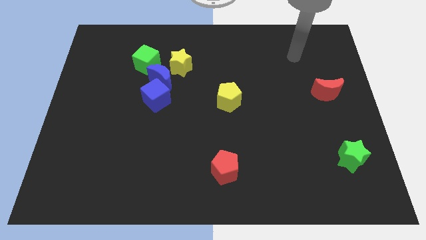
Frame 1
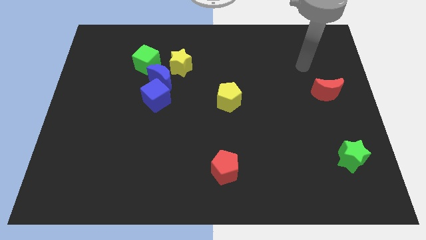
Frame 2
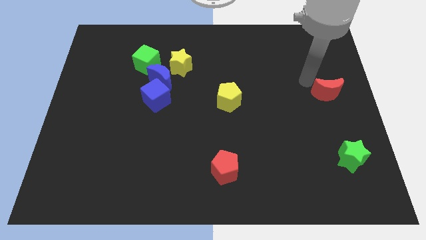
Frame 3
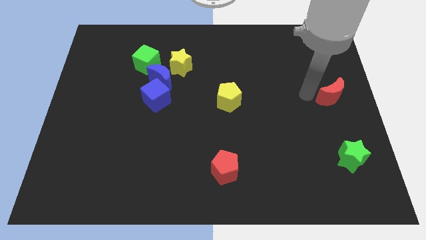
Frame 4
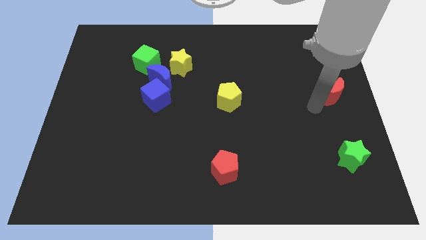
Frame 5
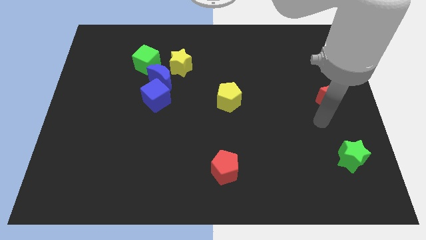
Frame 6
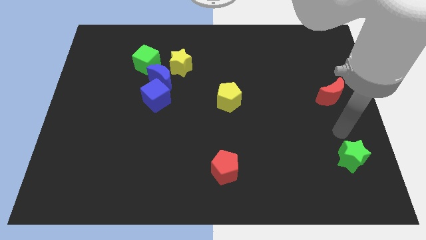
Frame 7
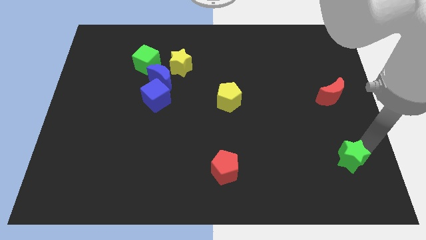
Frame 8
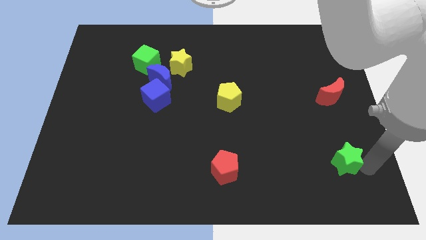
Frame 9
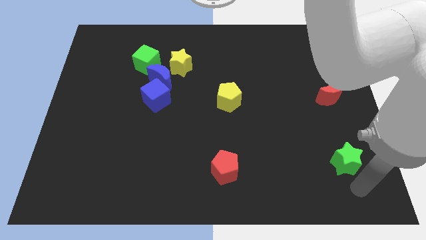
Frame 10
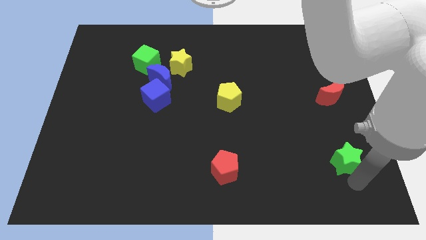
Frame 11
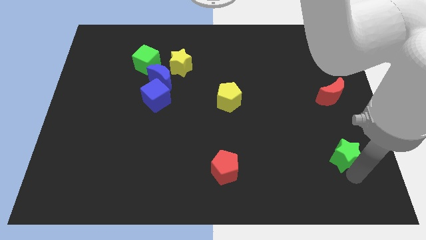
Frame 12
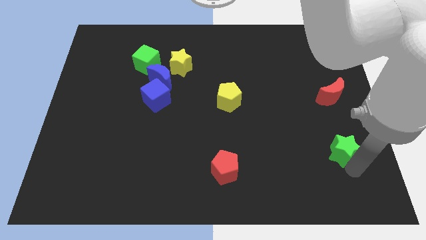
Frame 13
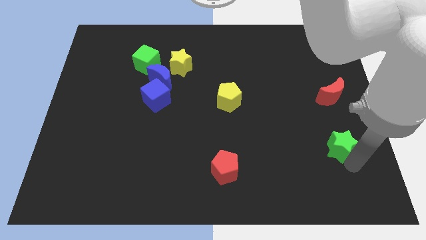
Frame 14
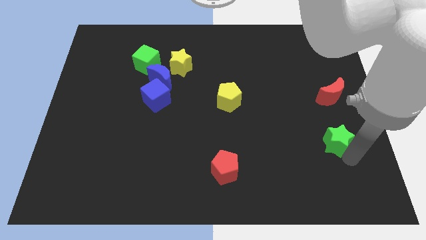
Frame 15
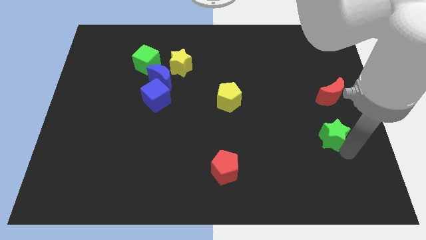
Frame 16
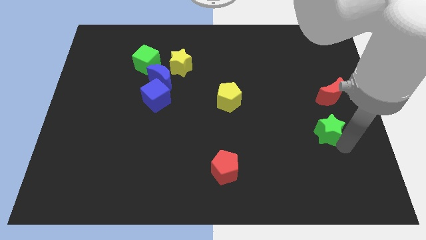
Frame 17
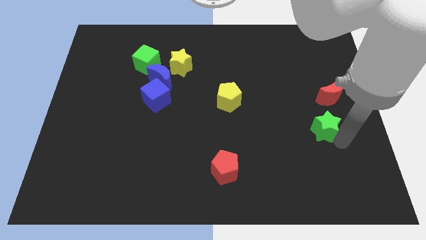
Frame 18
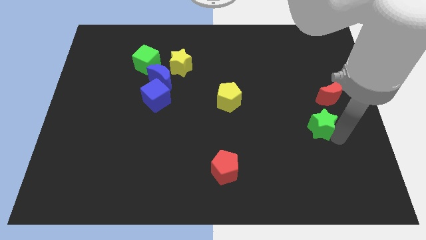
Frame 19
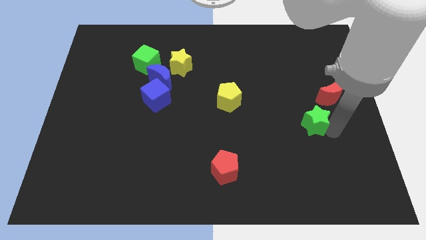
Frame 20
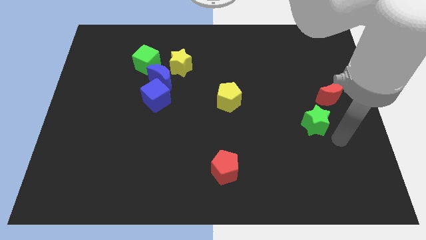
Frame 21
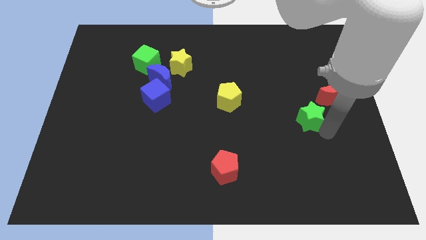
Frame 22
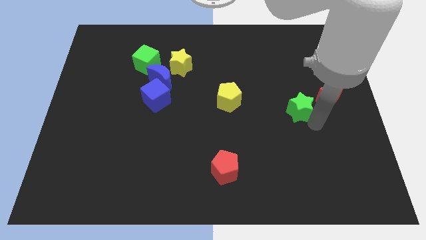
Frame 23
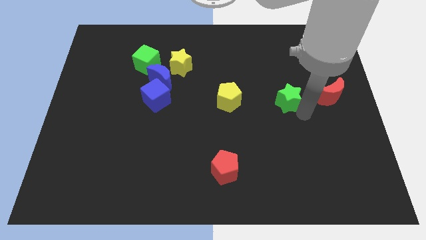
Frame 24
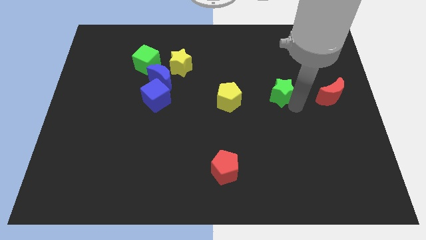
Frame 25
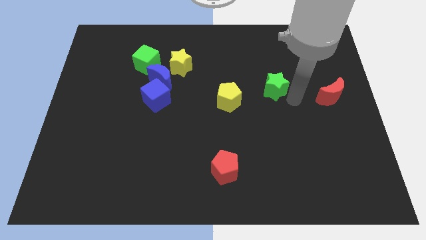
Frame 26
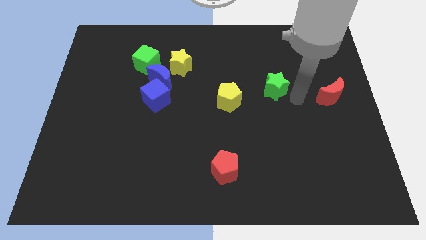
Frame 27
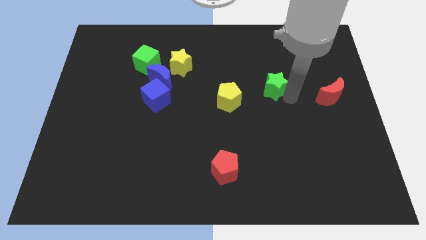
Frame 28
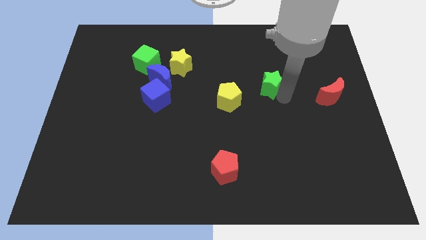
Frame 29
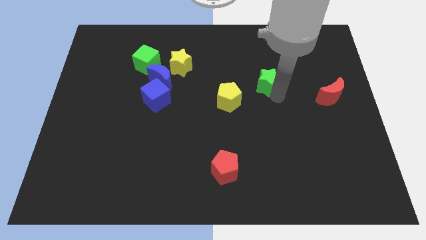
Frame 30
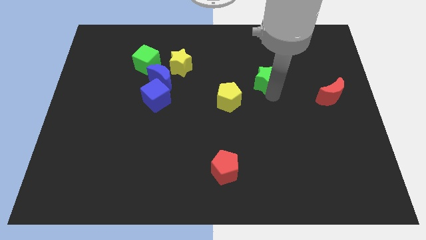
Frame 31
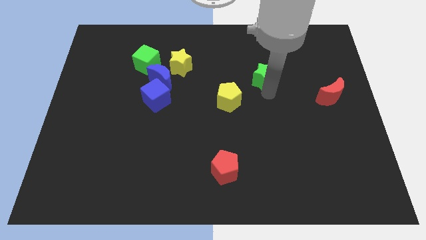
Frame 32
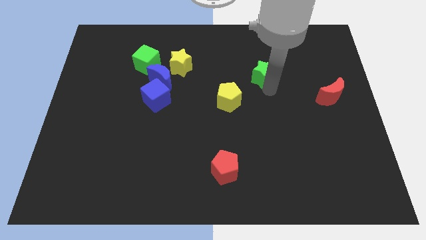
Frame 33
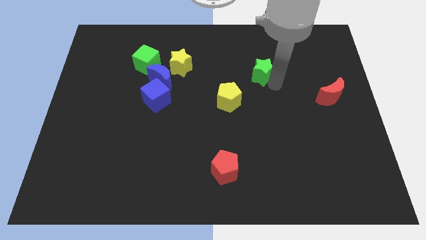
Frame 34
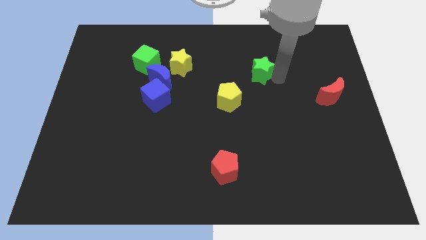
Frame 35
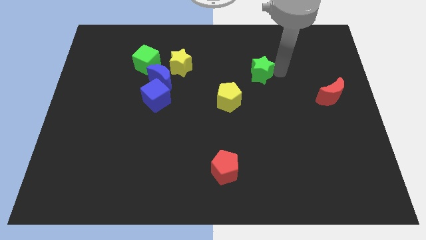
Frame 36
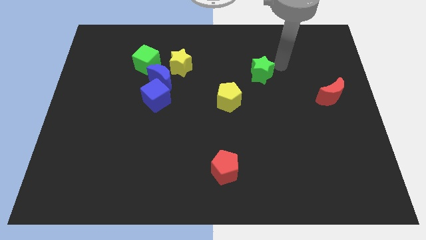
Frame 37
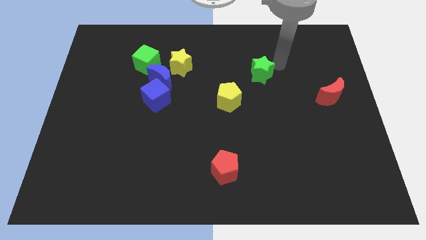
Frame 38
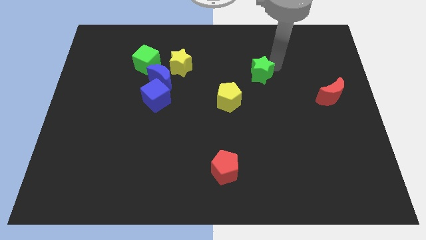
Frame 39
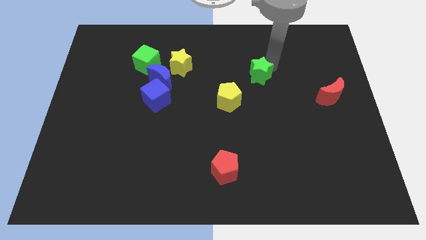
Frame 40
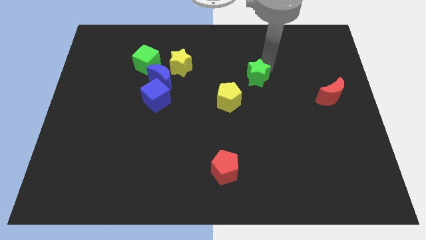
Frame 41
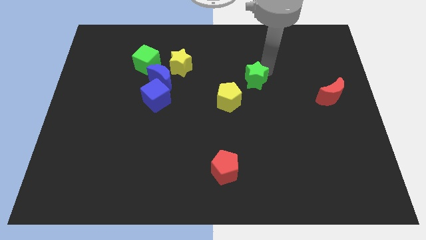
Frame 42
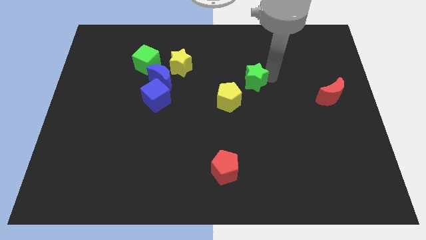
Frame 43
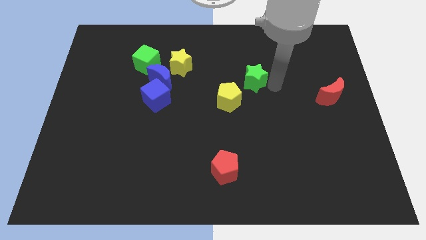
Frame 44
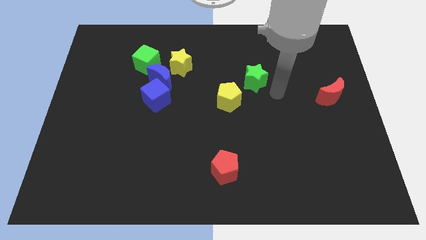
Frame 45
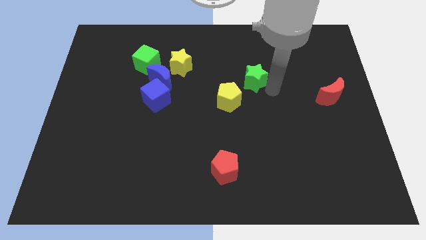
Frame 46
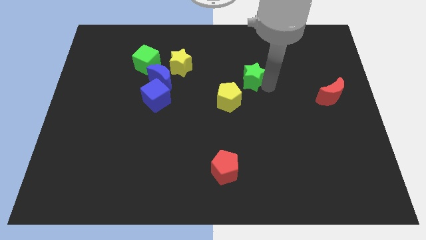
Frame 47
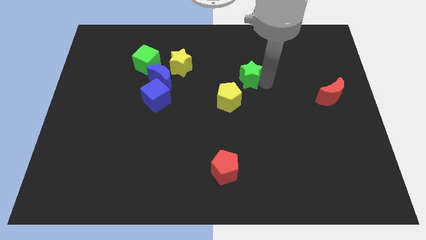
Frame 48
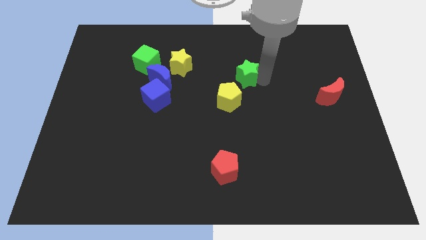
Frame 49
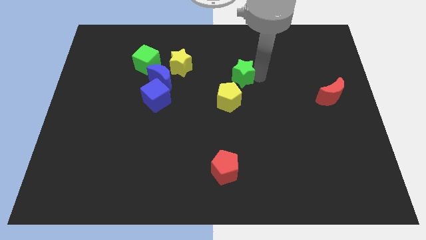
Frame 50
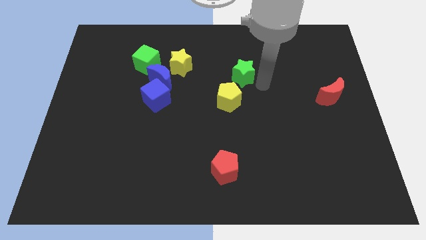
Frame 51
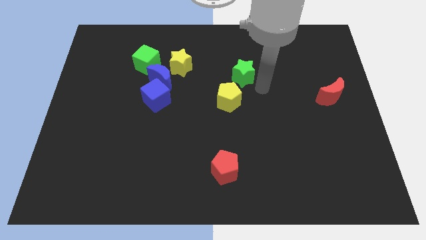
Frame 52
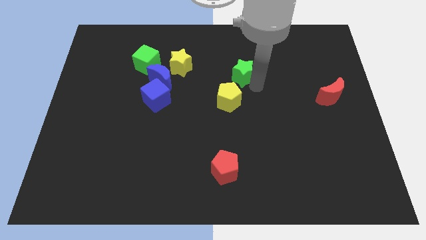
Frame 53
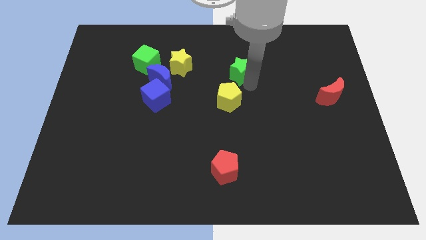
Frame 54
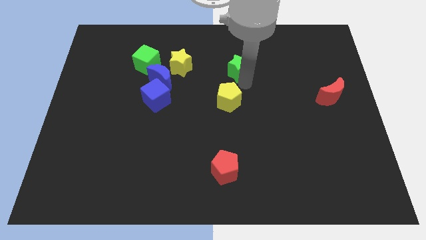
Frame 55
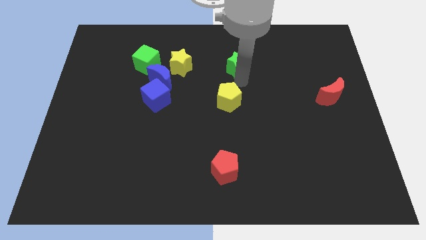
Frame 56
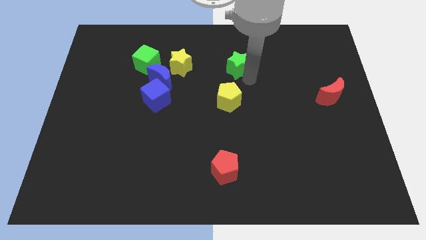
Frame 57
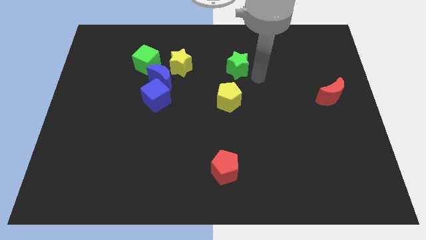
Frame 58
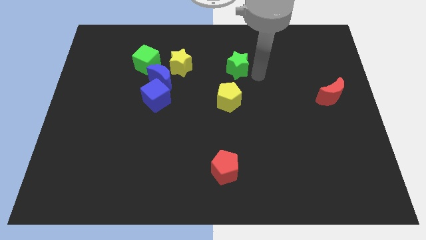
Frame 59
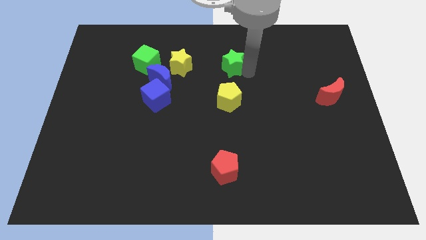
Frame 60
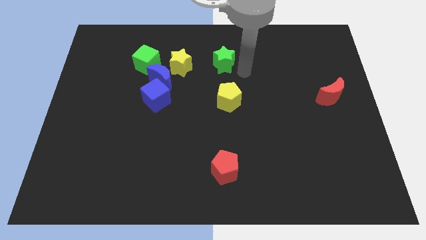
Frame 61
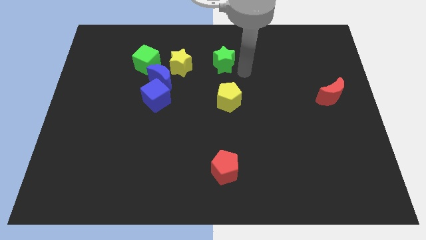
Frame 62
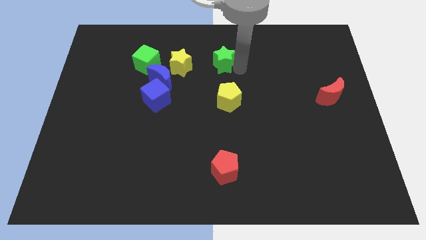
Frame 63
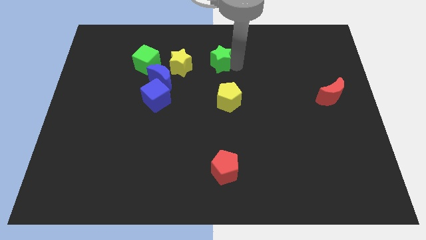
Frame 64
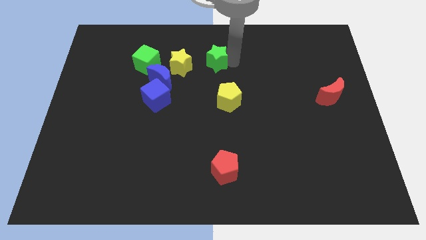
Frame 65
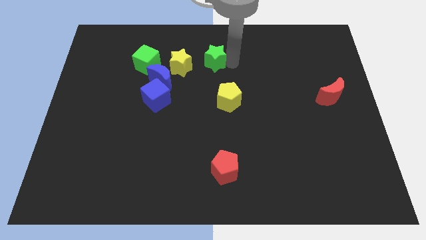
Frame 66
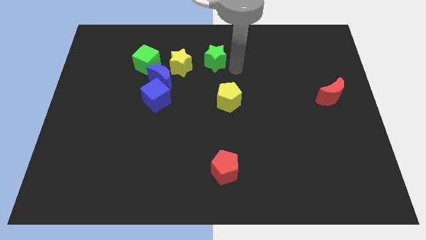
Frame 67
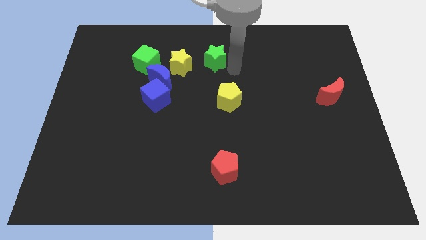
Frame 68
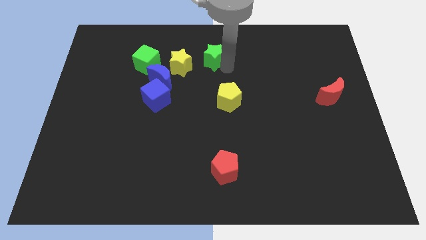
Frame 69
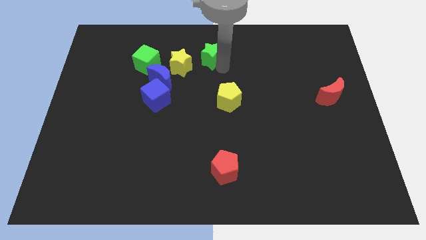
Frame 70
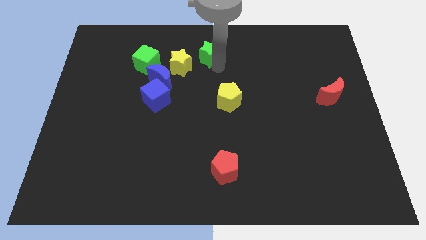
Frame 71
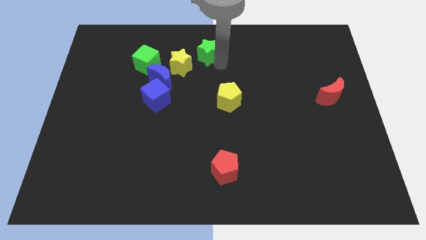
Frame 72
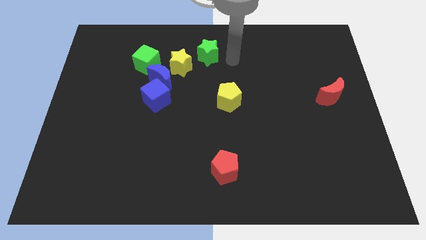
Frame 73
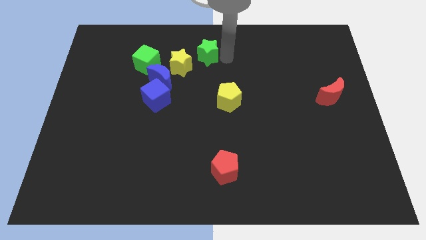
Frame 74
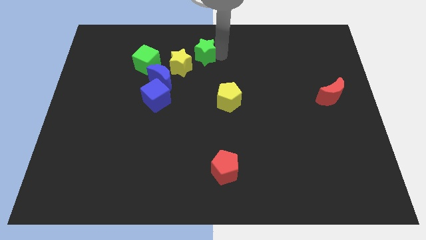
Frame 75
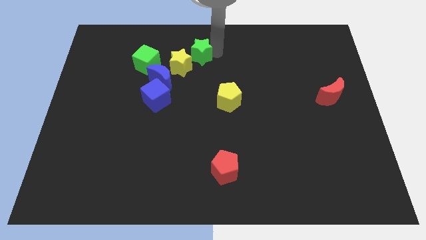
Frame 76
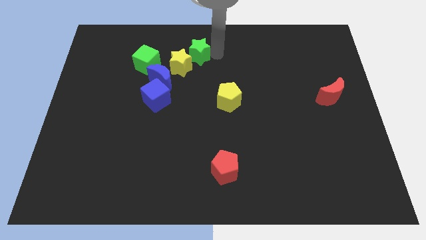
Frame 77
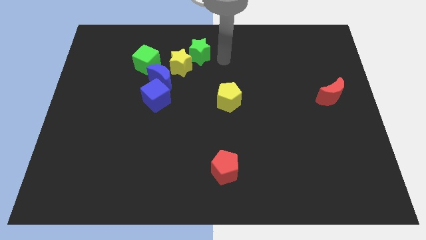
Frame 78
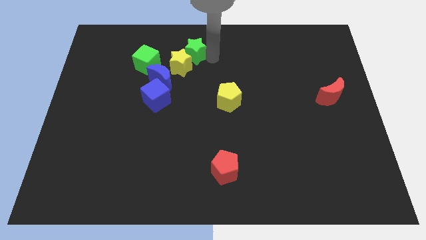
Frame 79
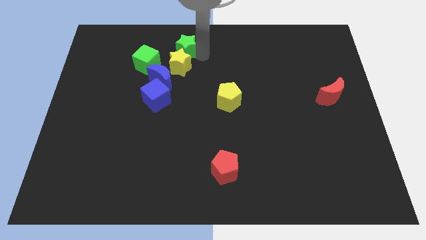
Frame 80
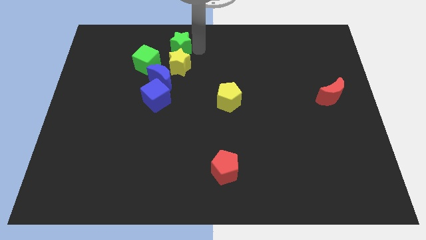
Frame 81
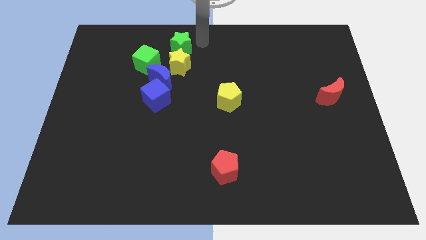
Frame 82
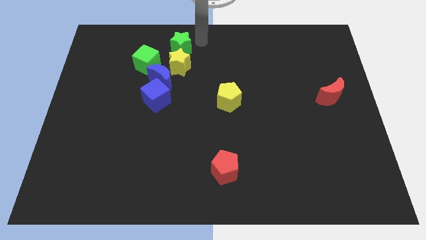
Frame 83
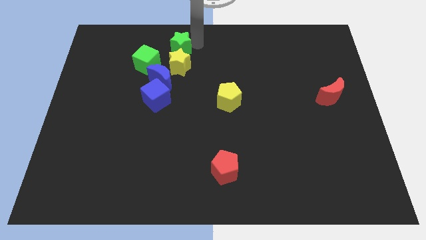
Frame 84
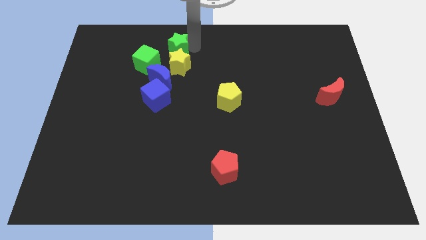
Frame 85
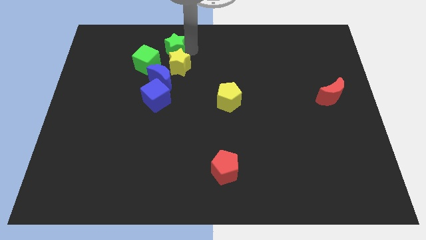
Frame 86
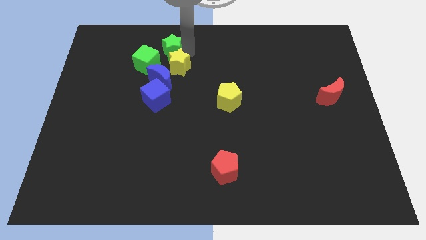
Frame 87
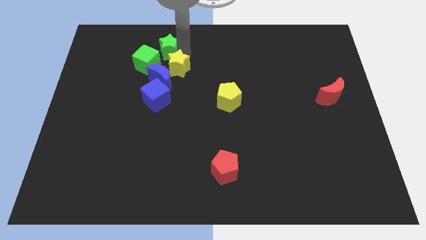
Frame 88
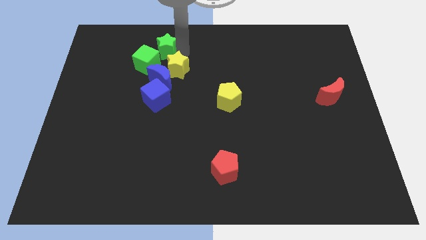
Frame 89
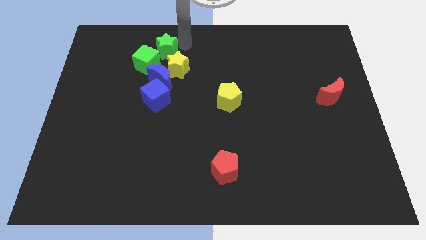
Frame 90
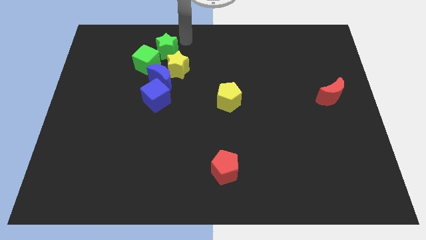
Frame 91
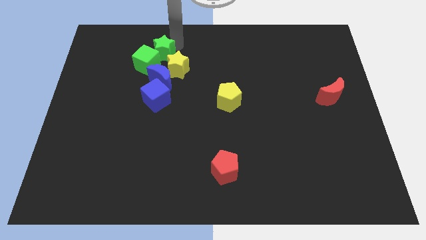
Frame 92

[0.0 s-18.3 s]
move the green star towards the green cube
